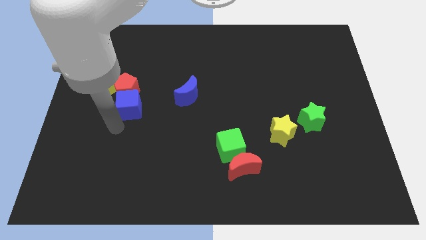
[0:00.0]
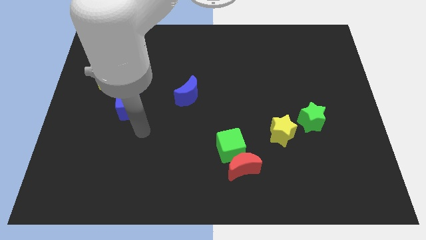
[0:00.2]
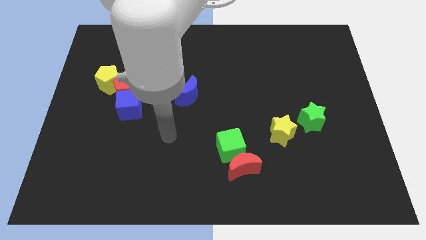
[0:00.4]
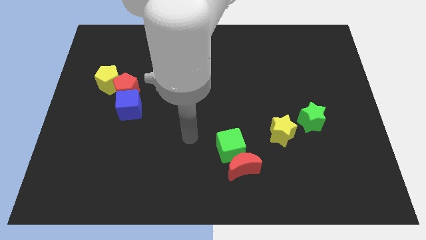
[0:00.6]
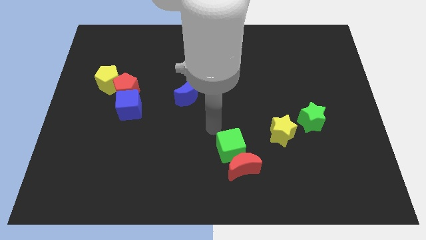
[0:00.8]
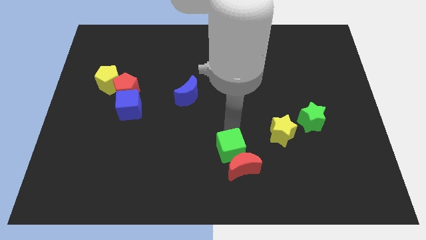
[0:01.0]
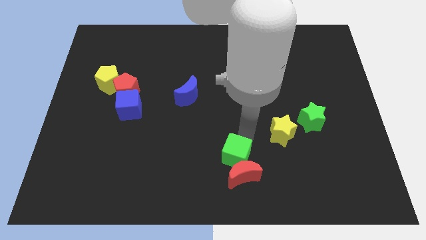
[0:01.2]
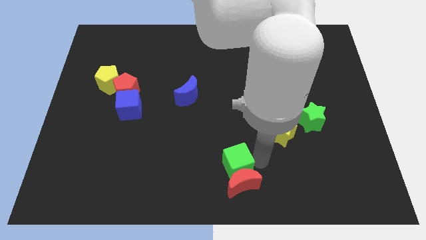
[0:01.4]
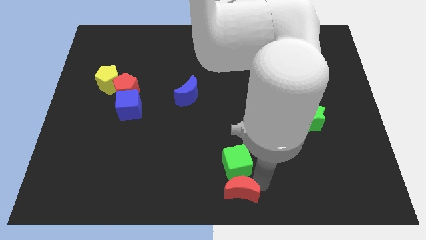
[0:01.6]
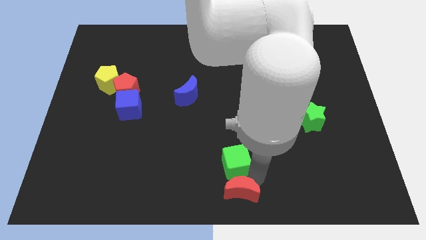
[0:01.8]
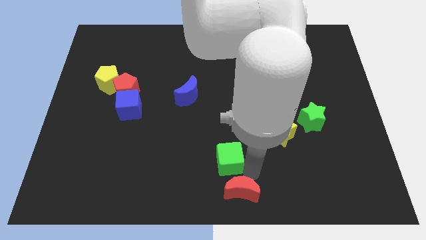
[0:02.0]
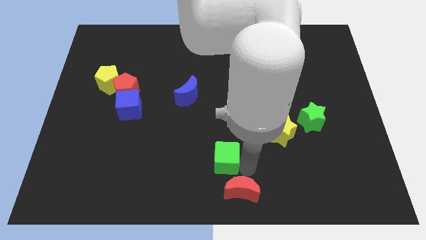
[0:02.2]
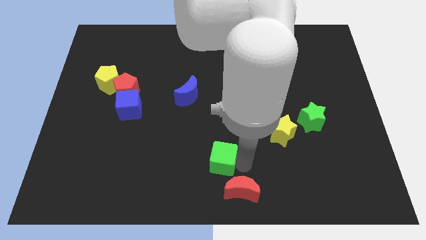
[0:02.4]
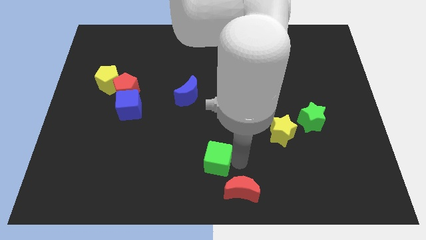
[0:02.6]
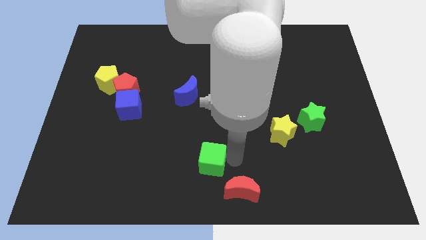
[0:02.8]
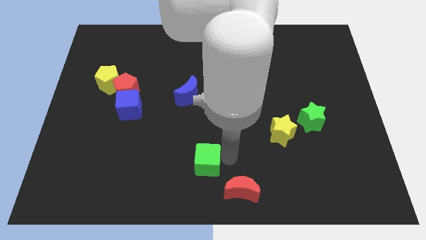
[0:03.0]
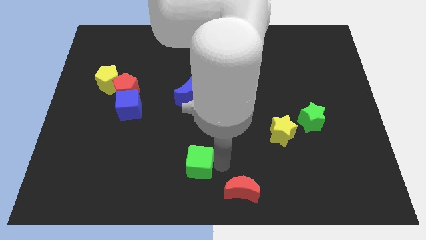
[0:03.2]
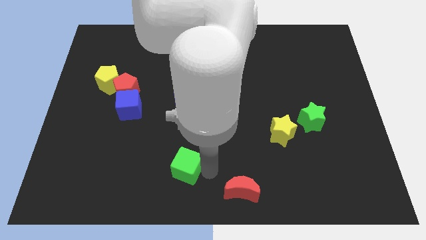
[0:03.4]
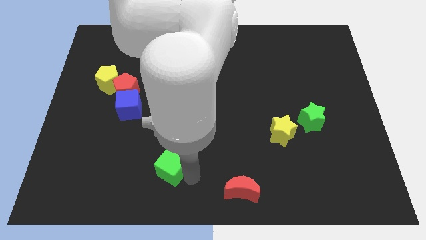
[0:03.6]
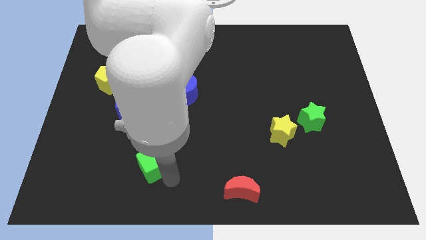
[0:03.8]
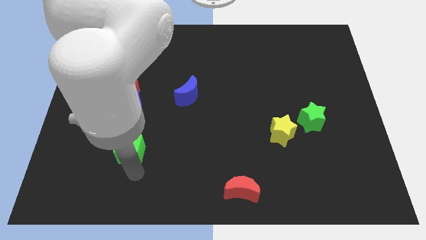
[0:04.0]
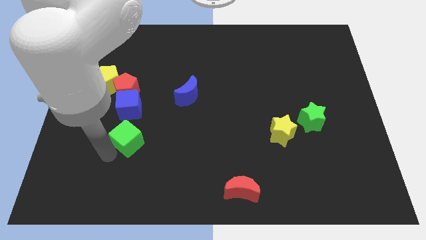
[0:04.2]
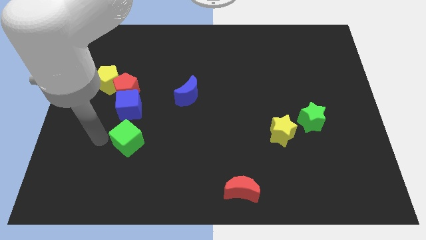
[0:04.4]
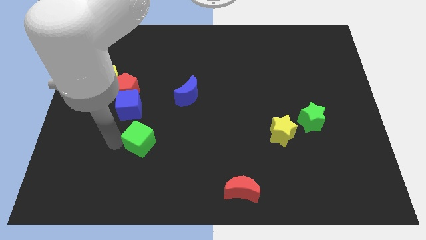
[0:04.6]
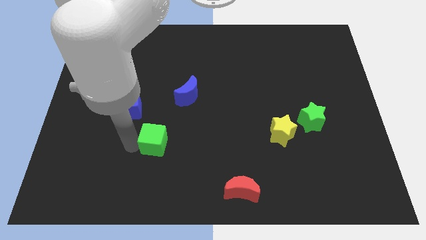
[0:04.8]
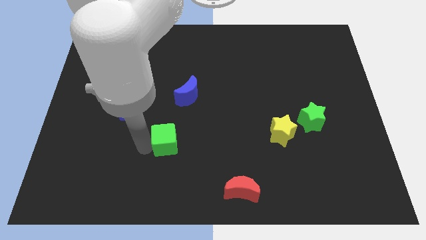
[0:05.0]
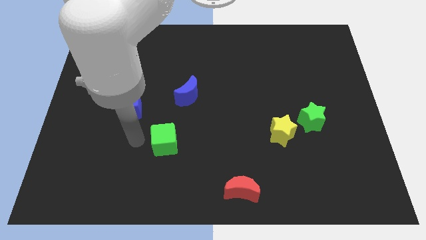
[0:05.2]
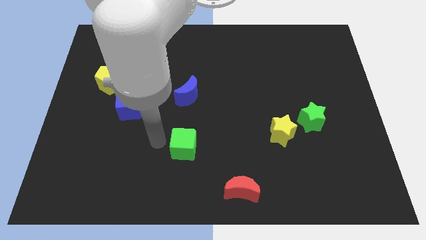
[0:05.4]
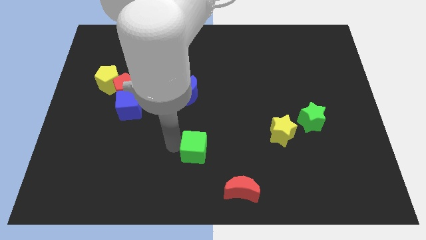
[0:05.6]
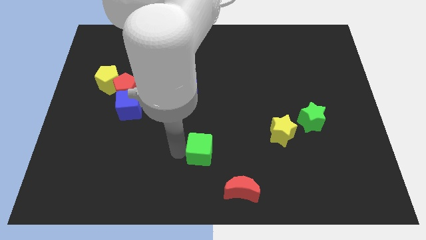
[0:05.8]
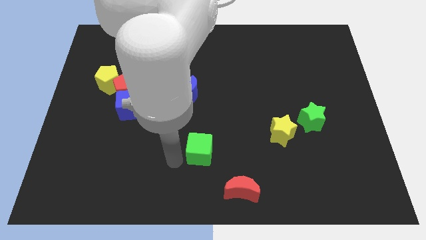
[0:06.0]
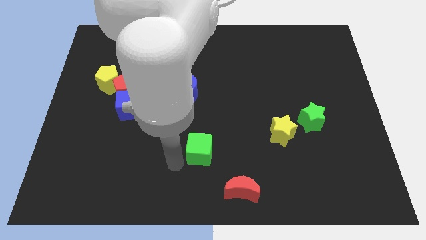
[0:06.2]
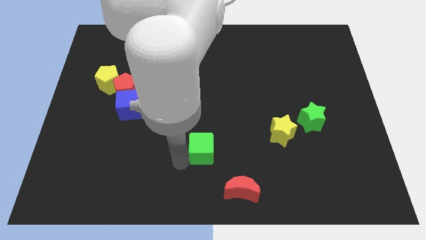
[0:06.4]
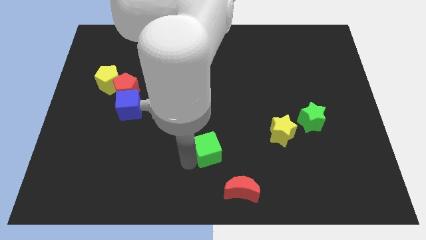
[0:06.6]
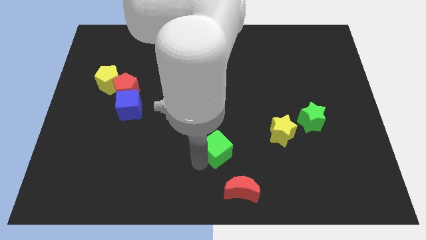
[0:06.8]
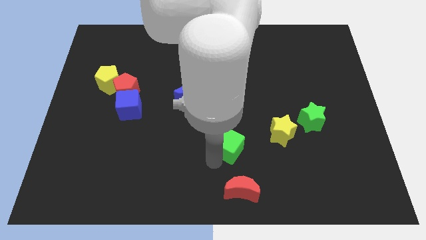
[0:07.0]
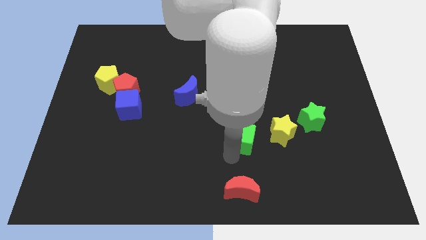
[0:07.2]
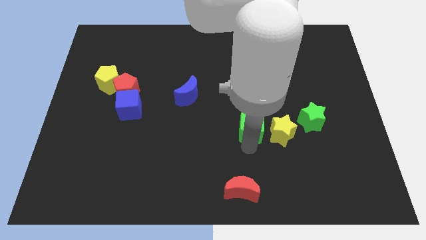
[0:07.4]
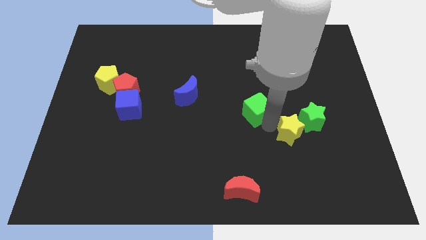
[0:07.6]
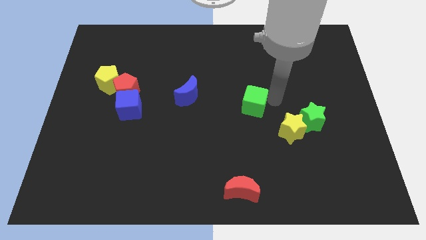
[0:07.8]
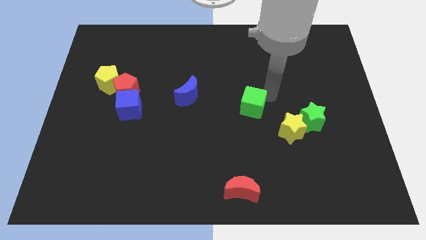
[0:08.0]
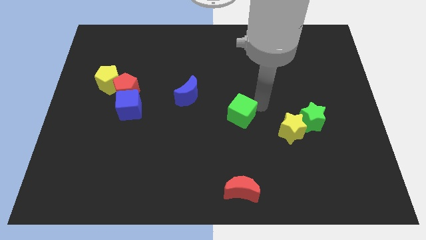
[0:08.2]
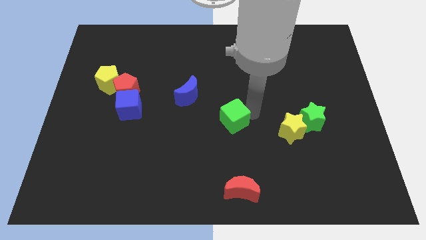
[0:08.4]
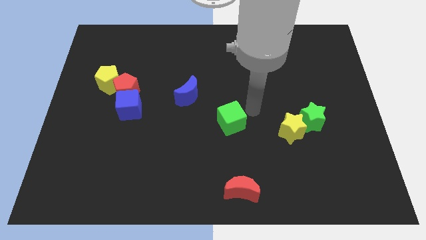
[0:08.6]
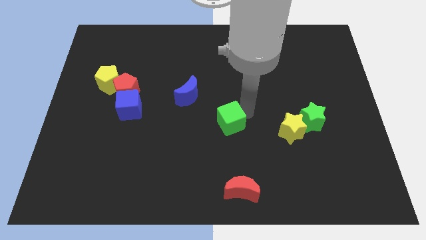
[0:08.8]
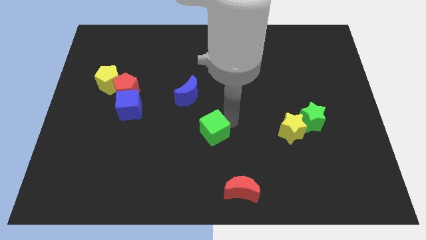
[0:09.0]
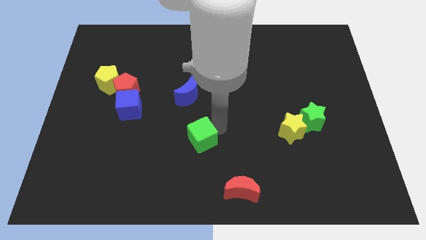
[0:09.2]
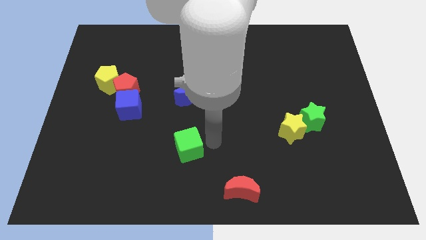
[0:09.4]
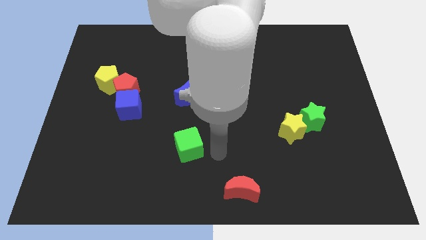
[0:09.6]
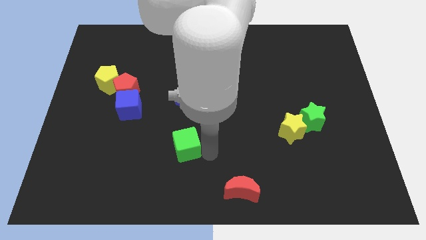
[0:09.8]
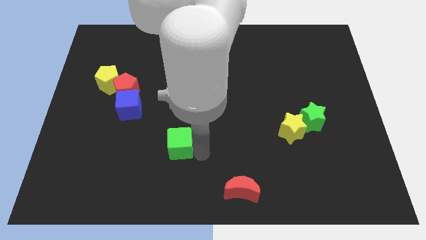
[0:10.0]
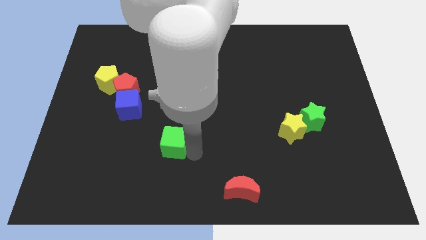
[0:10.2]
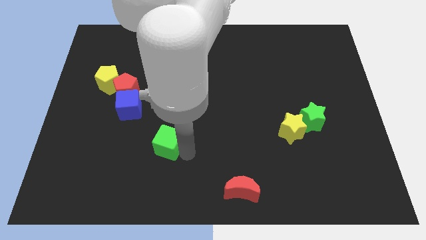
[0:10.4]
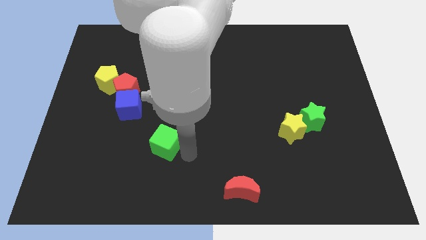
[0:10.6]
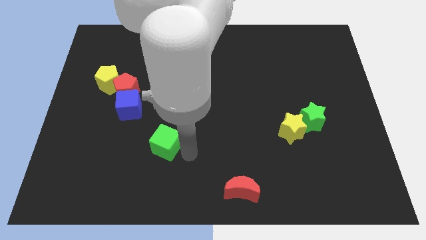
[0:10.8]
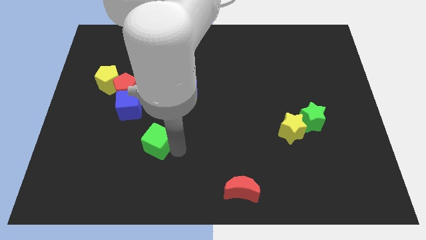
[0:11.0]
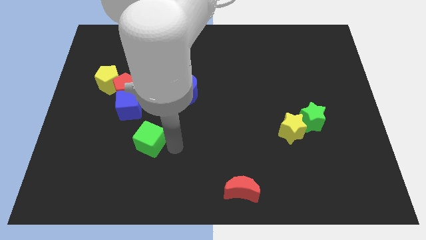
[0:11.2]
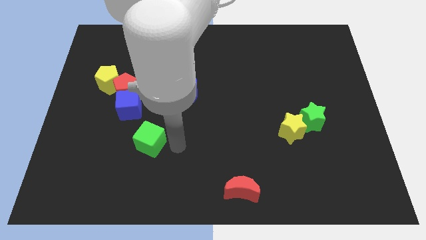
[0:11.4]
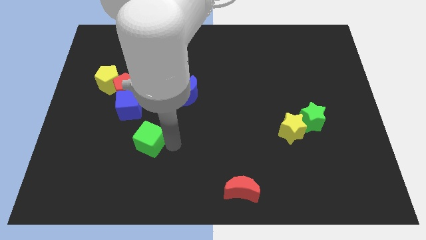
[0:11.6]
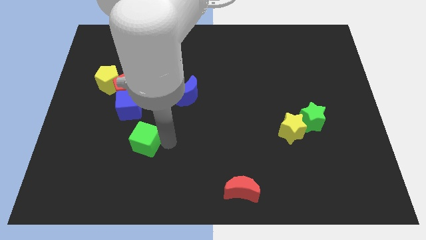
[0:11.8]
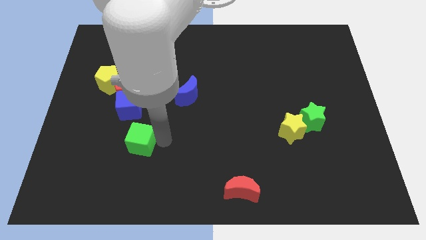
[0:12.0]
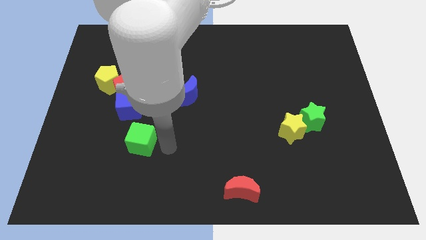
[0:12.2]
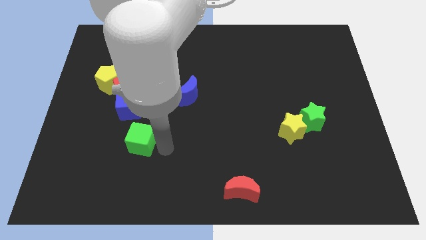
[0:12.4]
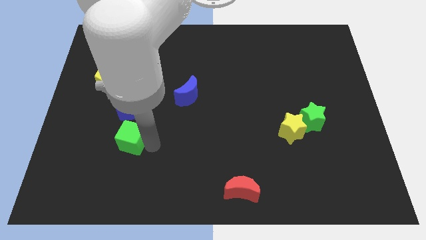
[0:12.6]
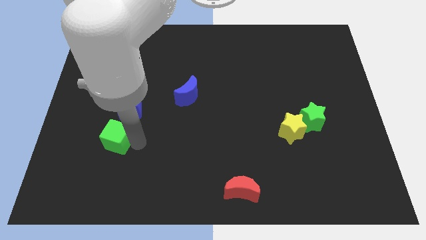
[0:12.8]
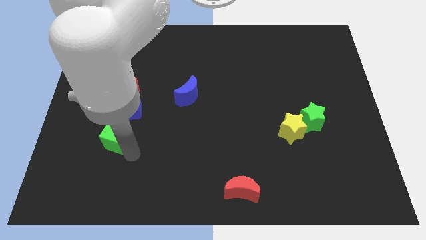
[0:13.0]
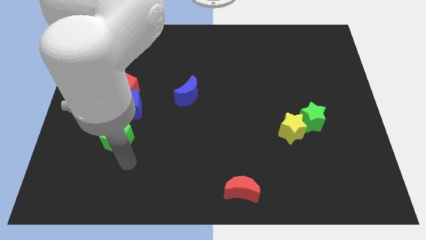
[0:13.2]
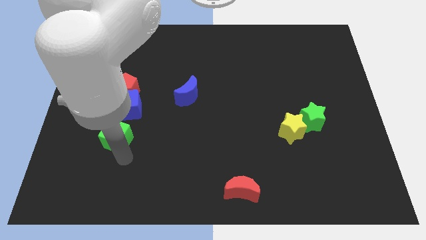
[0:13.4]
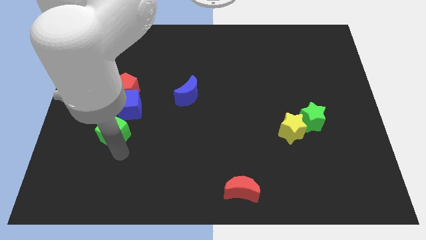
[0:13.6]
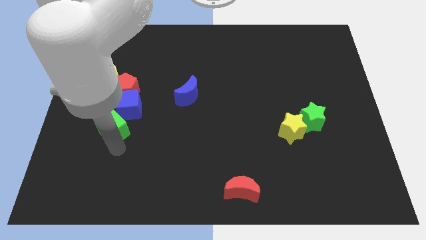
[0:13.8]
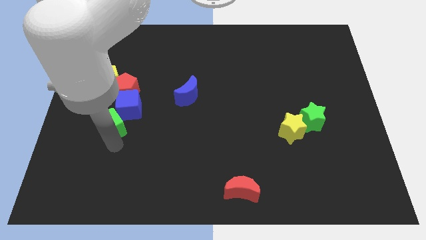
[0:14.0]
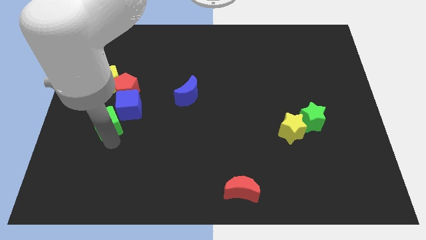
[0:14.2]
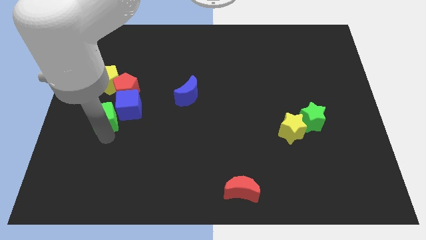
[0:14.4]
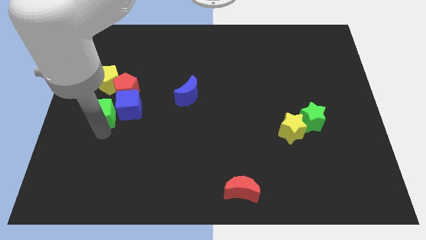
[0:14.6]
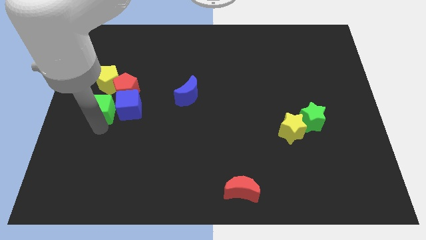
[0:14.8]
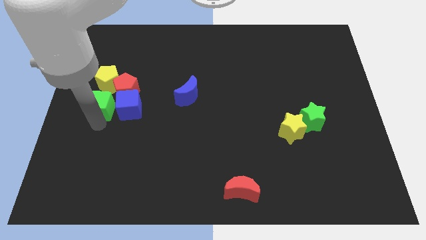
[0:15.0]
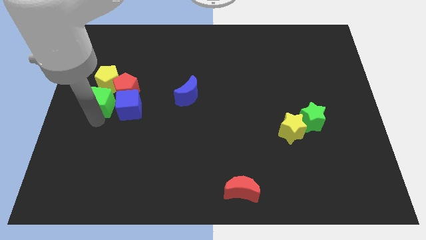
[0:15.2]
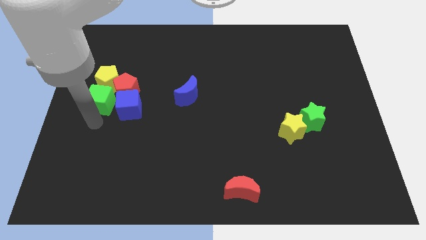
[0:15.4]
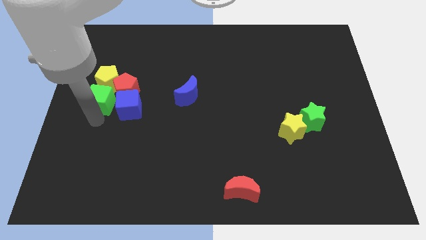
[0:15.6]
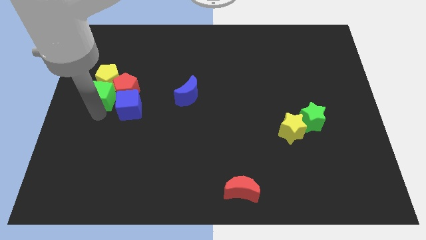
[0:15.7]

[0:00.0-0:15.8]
move the green cube towards the yellow pentagon
